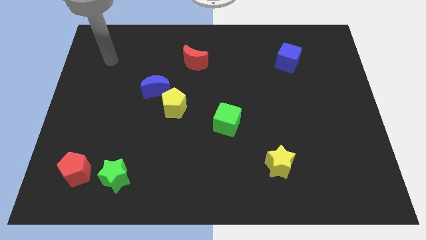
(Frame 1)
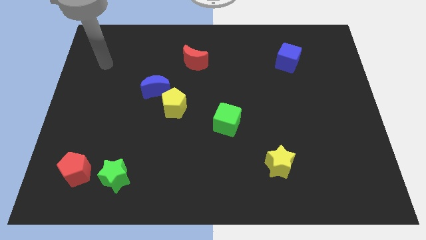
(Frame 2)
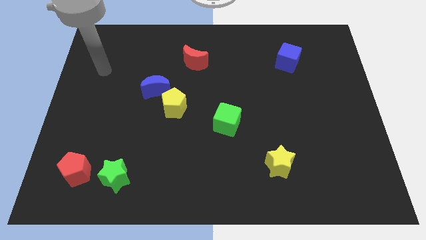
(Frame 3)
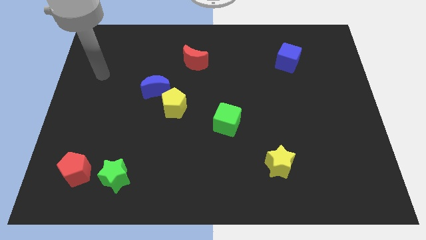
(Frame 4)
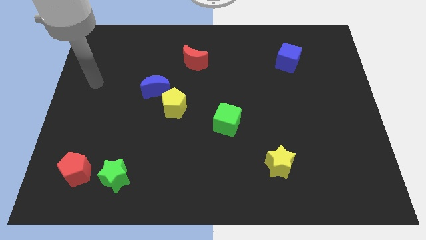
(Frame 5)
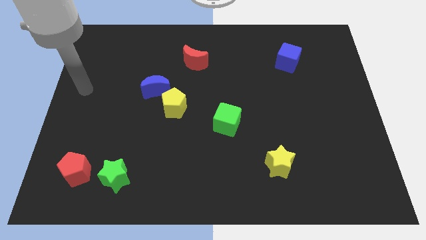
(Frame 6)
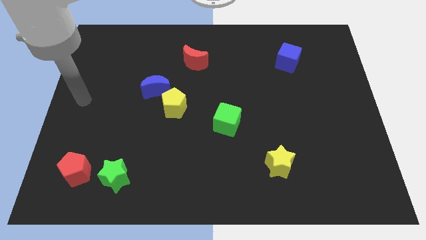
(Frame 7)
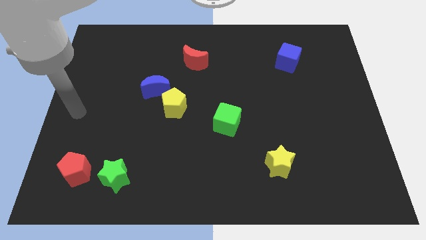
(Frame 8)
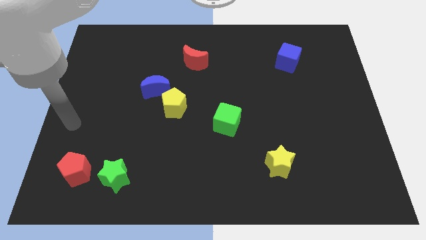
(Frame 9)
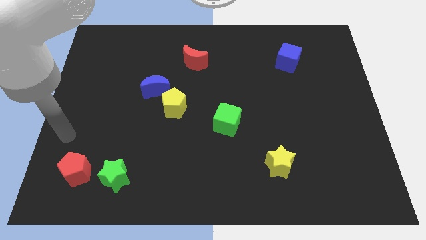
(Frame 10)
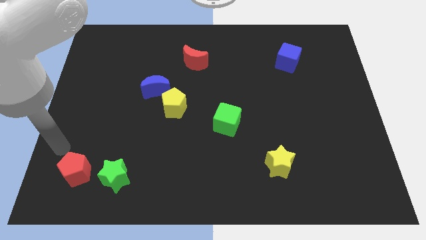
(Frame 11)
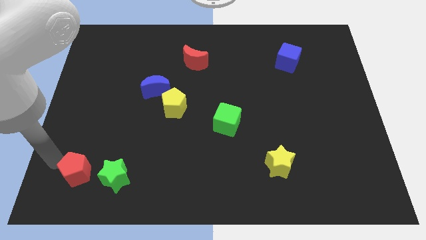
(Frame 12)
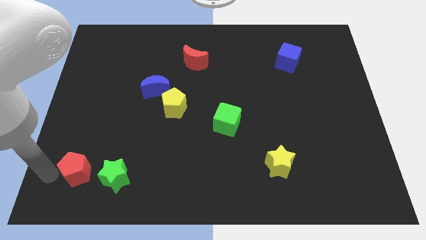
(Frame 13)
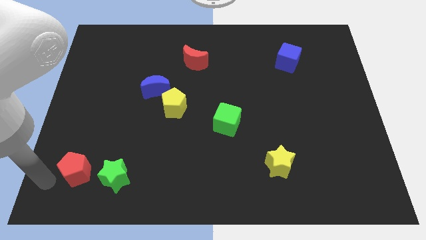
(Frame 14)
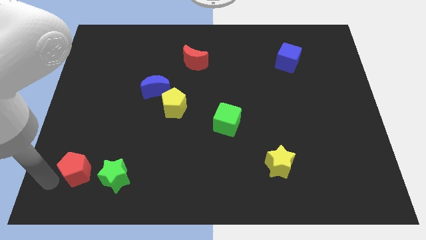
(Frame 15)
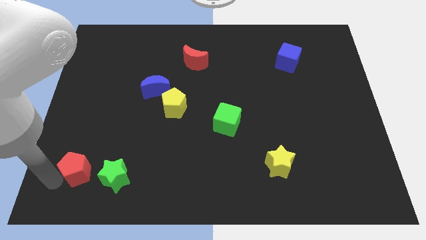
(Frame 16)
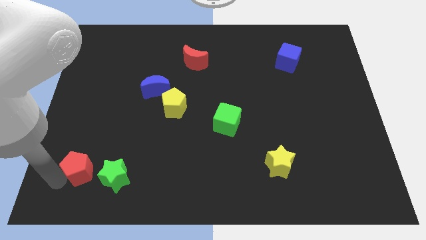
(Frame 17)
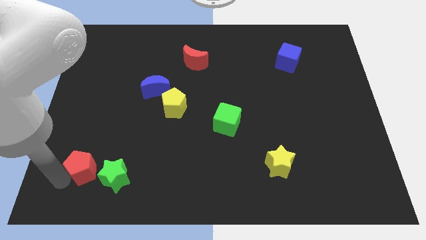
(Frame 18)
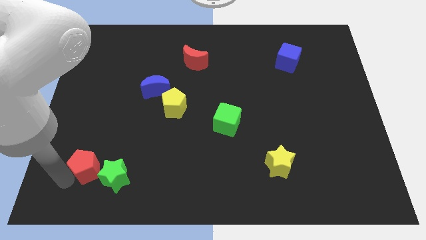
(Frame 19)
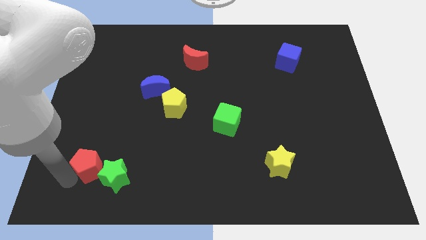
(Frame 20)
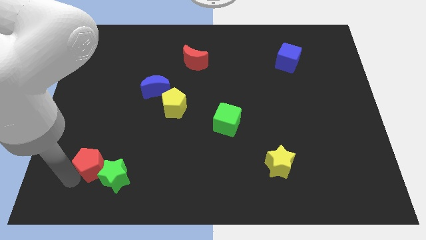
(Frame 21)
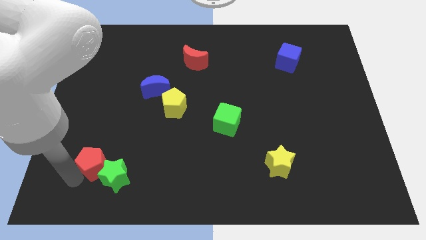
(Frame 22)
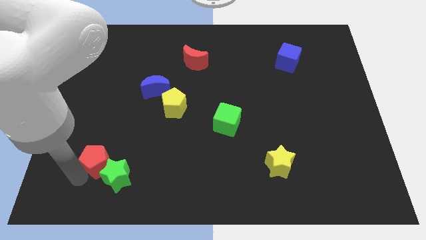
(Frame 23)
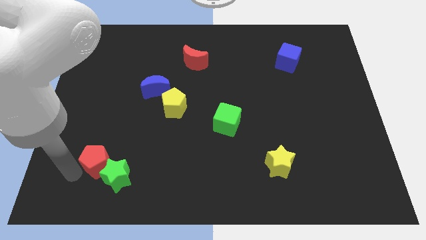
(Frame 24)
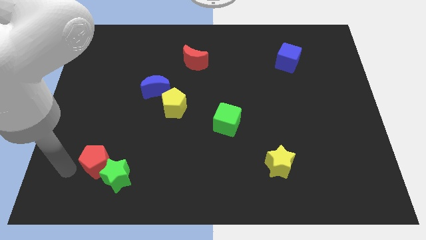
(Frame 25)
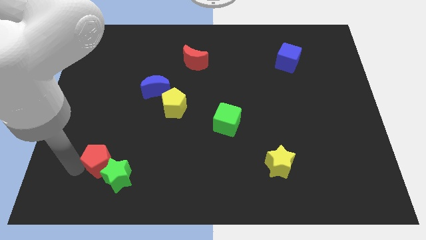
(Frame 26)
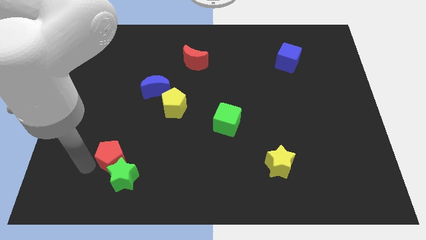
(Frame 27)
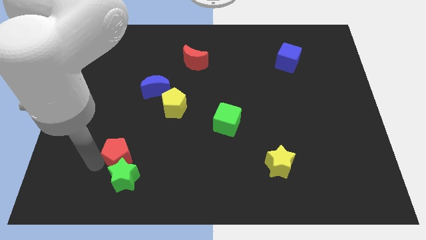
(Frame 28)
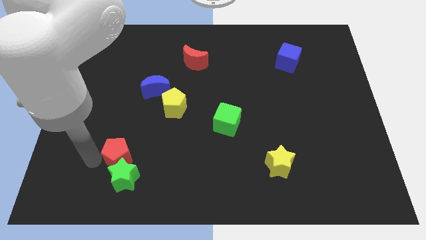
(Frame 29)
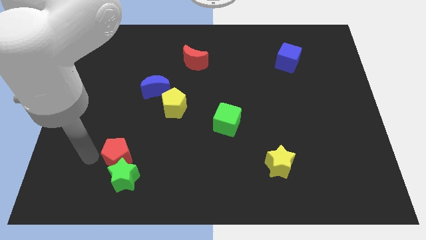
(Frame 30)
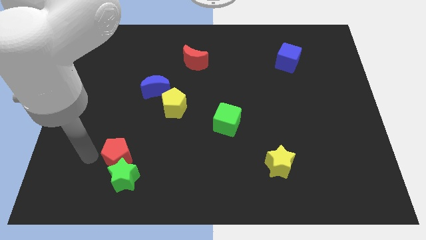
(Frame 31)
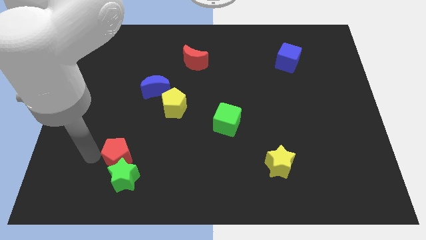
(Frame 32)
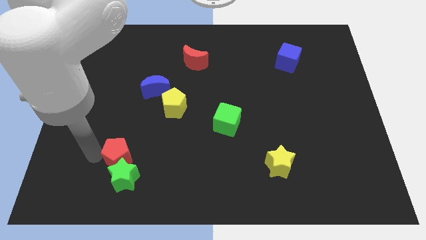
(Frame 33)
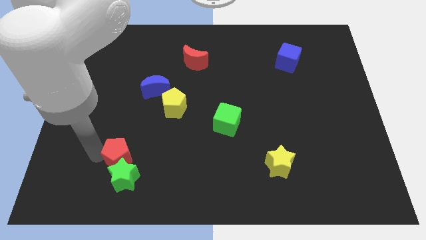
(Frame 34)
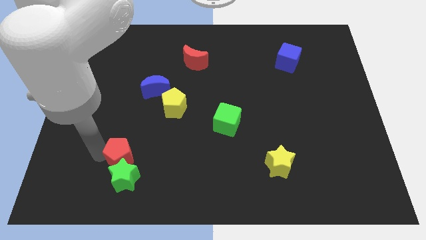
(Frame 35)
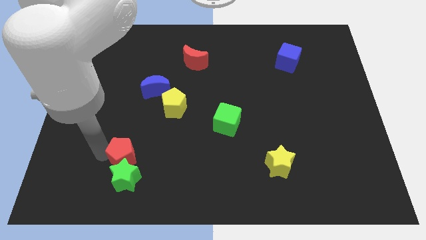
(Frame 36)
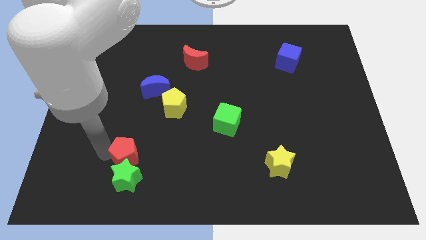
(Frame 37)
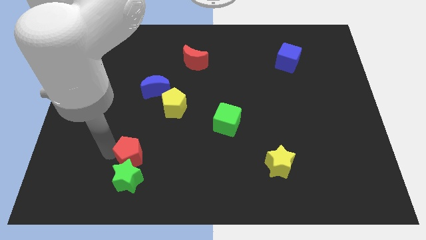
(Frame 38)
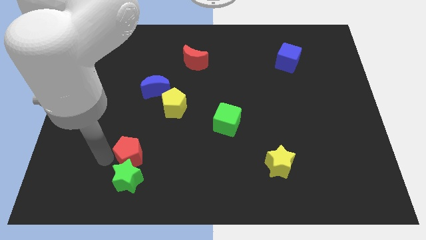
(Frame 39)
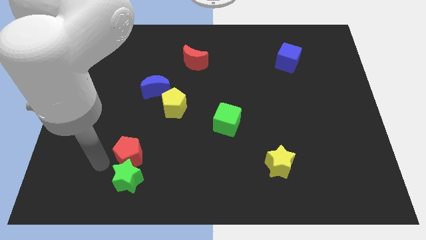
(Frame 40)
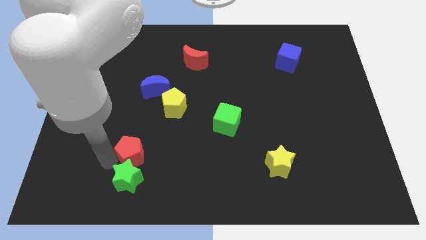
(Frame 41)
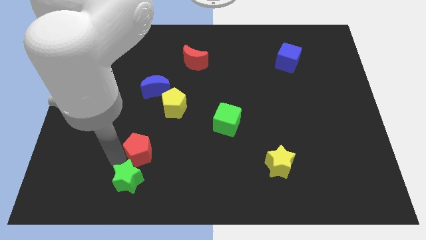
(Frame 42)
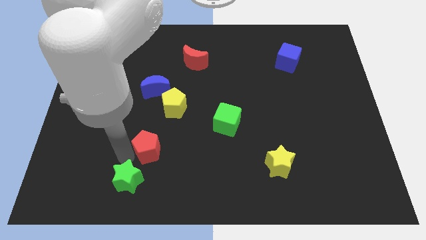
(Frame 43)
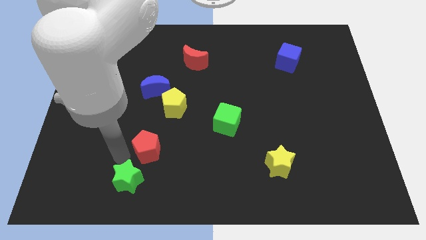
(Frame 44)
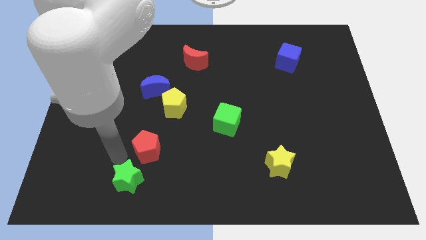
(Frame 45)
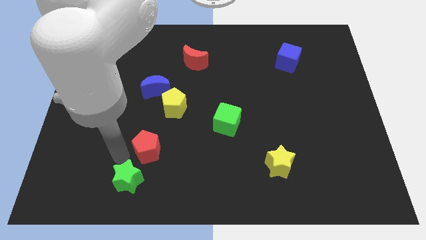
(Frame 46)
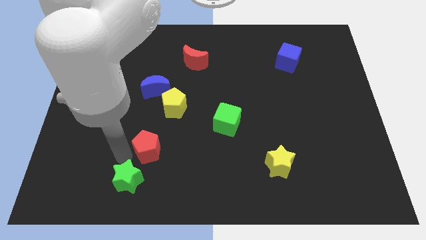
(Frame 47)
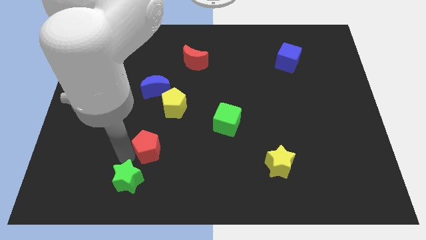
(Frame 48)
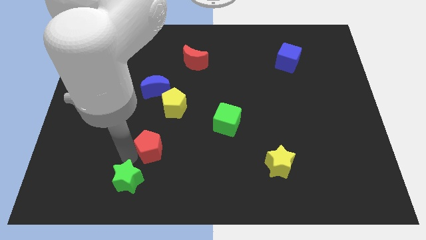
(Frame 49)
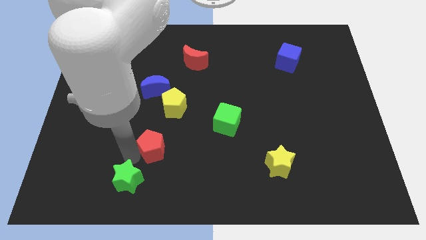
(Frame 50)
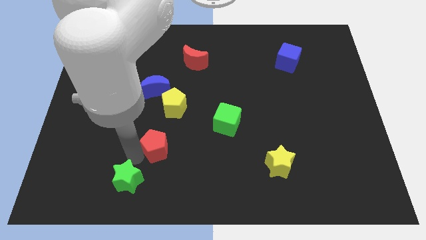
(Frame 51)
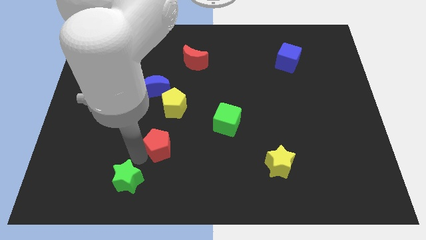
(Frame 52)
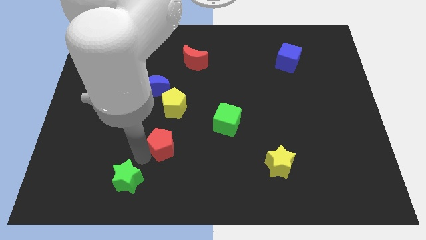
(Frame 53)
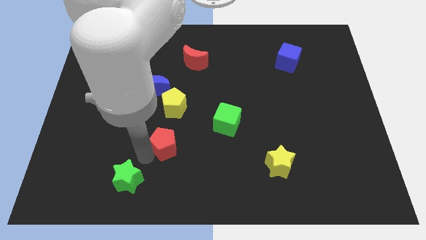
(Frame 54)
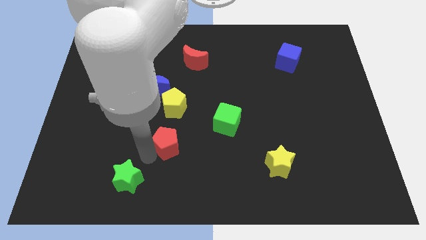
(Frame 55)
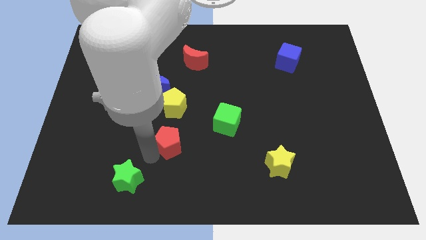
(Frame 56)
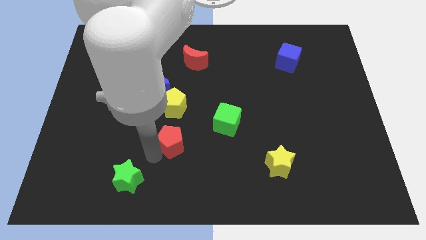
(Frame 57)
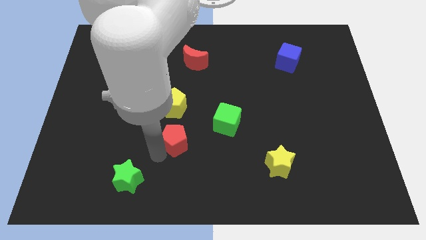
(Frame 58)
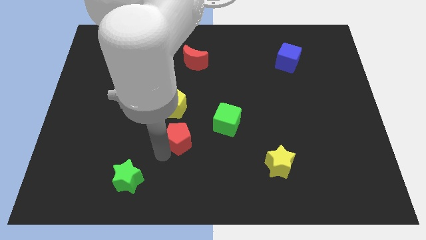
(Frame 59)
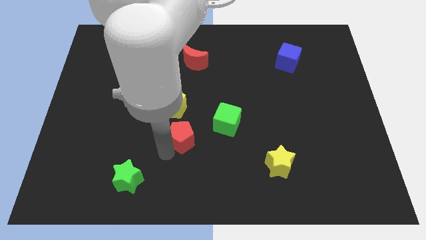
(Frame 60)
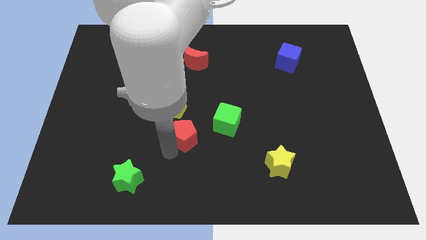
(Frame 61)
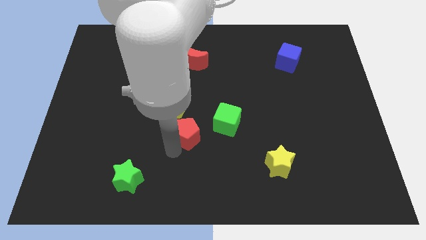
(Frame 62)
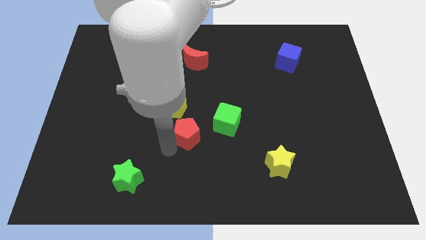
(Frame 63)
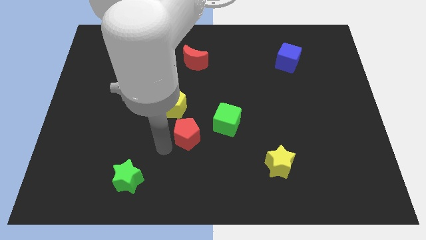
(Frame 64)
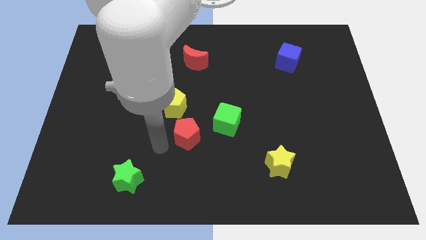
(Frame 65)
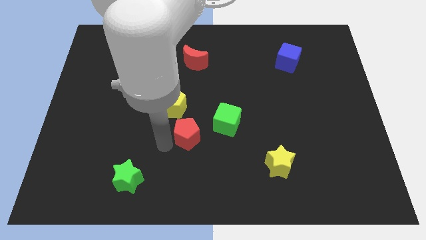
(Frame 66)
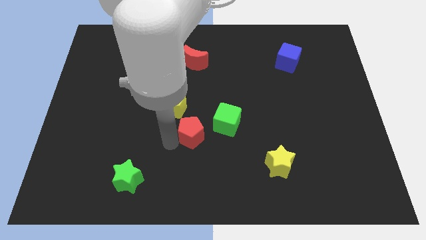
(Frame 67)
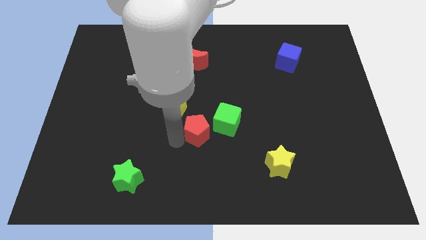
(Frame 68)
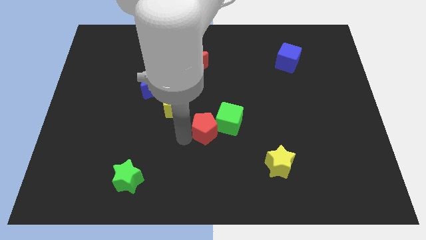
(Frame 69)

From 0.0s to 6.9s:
move the red pentagon towards the green cube
